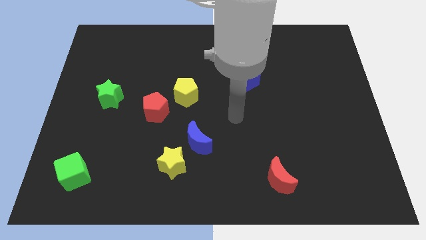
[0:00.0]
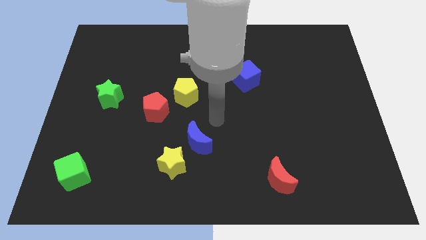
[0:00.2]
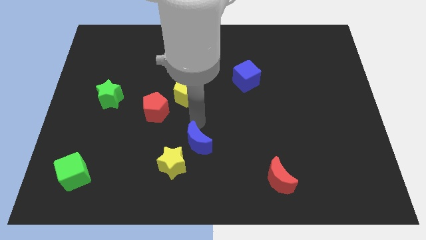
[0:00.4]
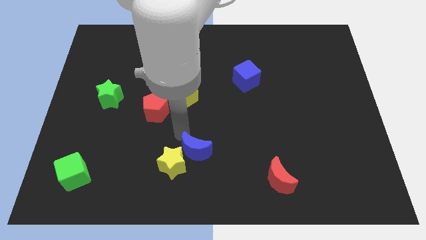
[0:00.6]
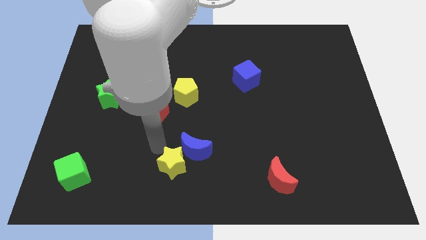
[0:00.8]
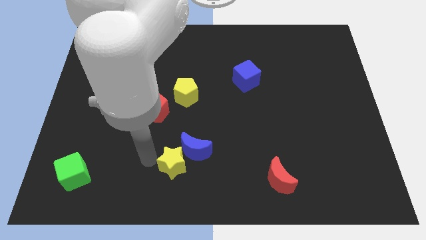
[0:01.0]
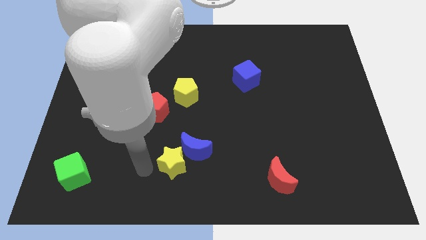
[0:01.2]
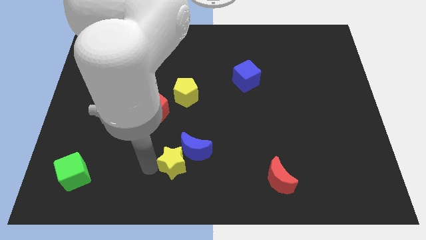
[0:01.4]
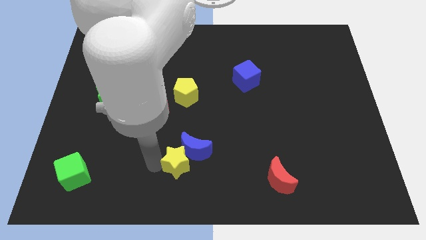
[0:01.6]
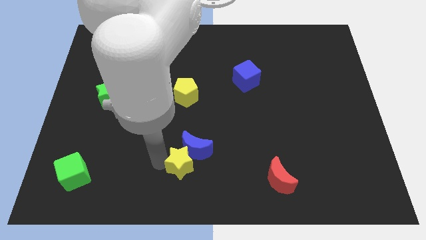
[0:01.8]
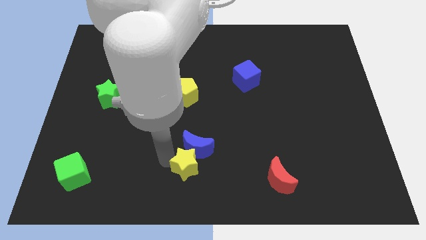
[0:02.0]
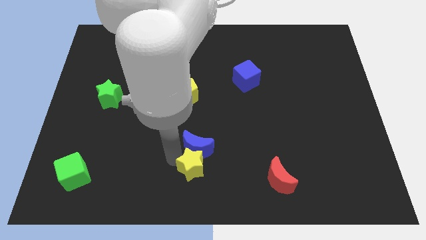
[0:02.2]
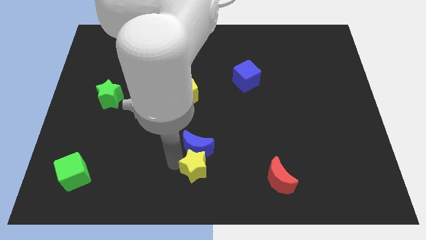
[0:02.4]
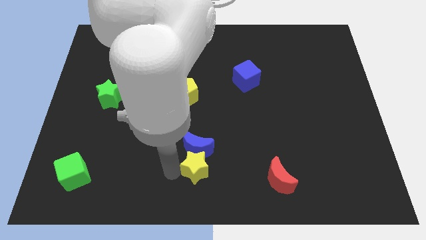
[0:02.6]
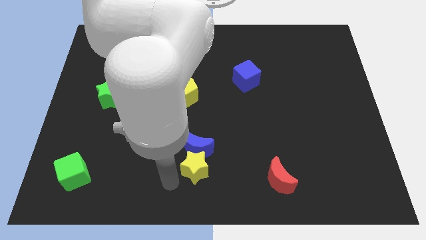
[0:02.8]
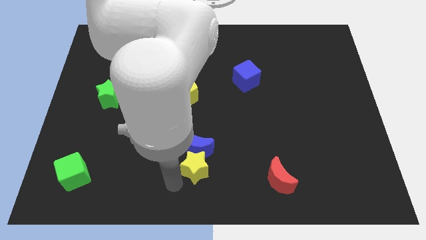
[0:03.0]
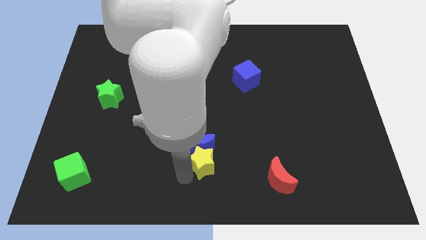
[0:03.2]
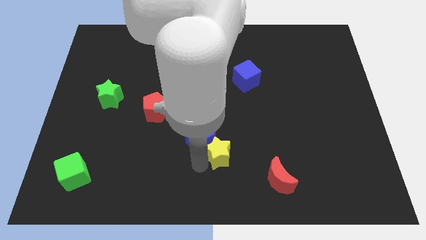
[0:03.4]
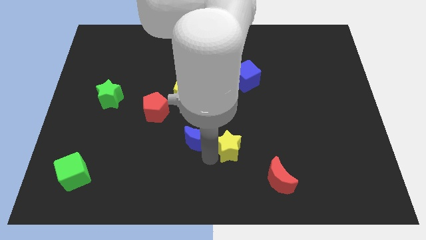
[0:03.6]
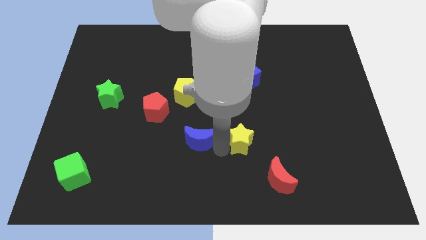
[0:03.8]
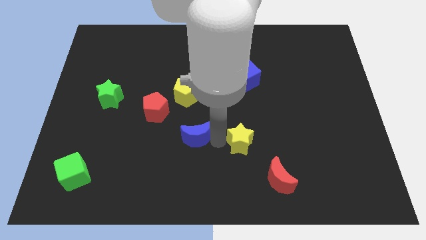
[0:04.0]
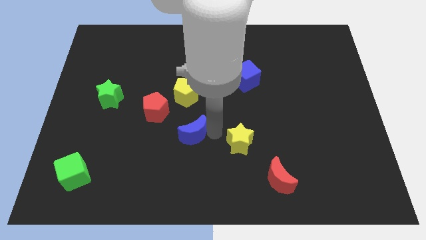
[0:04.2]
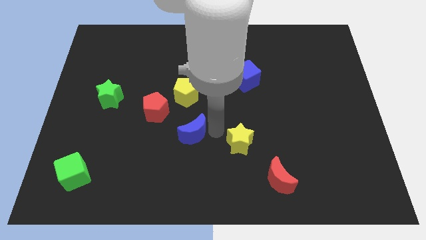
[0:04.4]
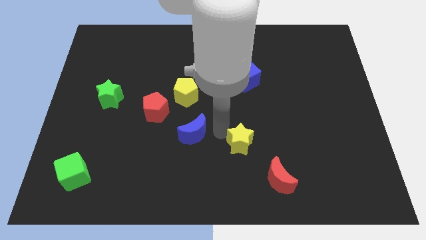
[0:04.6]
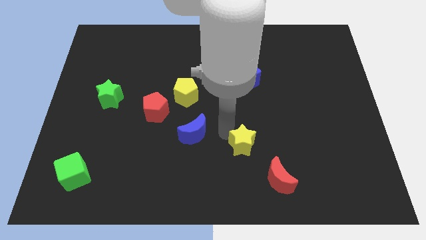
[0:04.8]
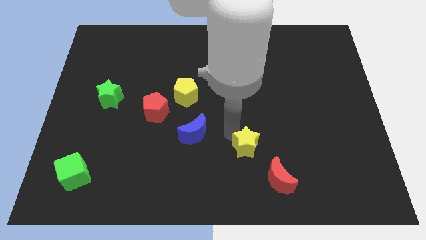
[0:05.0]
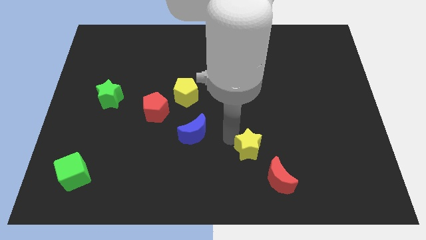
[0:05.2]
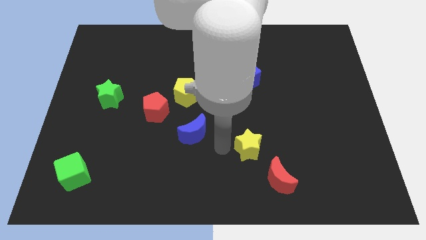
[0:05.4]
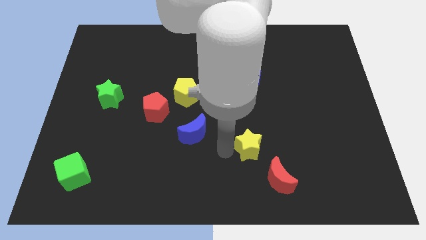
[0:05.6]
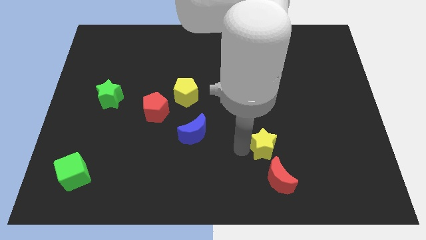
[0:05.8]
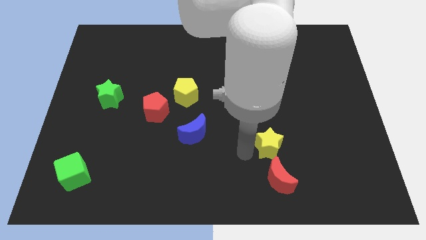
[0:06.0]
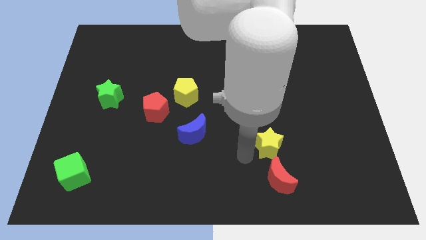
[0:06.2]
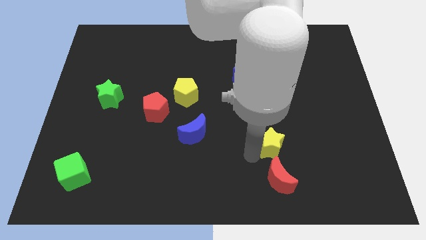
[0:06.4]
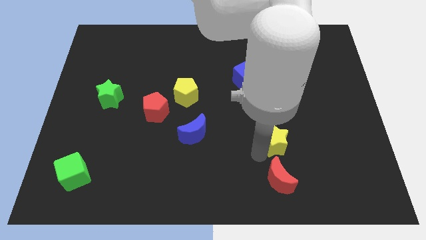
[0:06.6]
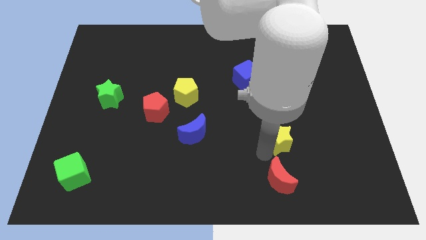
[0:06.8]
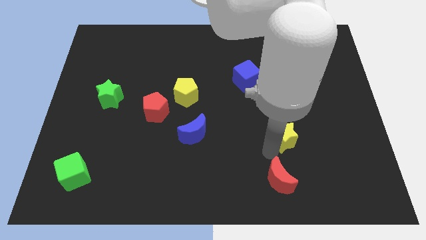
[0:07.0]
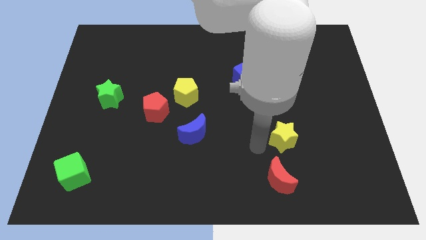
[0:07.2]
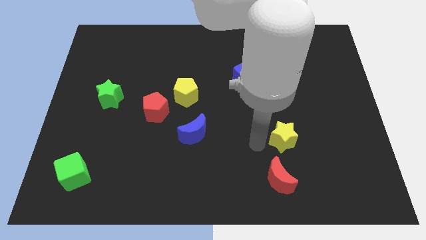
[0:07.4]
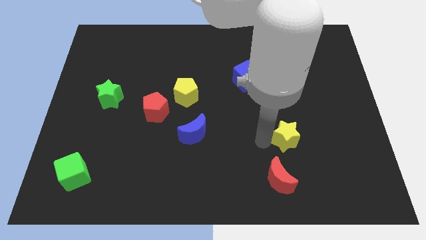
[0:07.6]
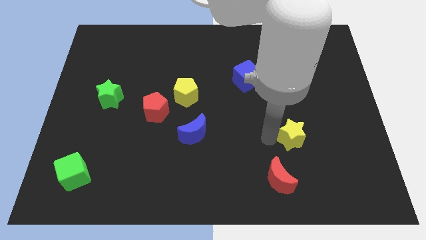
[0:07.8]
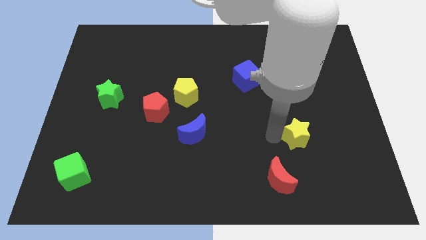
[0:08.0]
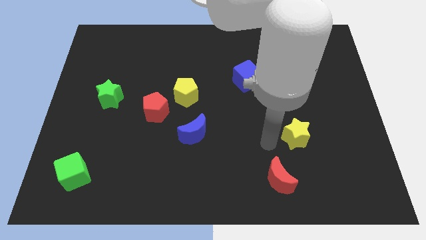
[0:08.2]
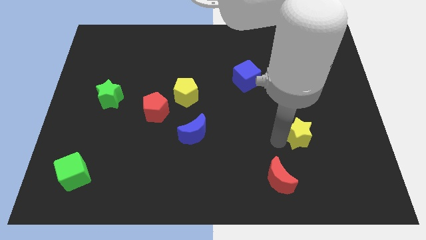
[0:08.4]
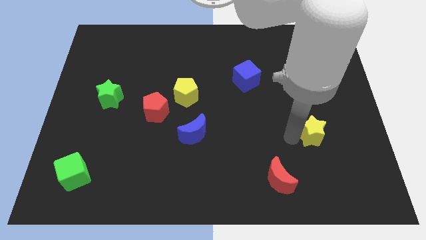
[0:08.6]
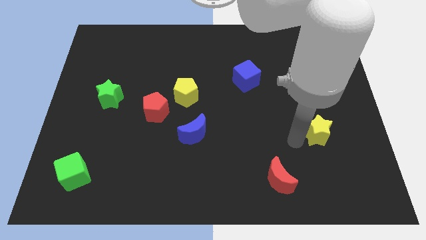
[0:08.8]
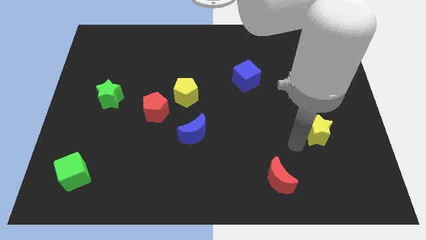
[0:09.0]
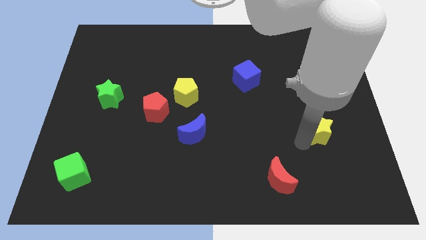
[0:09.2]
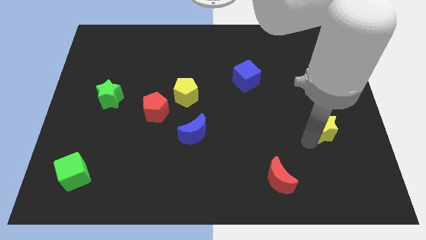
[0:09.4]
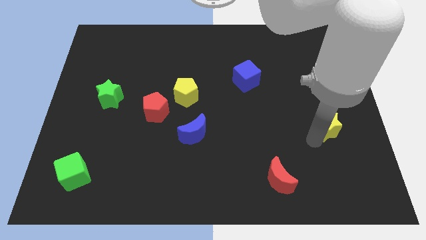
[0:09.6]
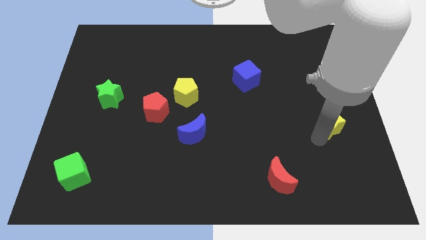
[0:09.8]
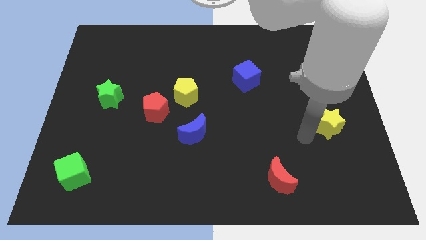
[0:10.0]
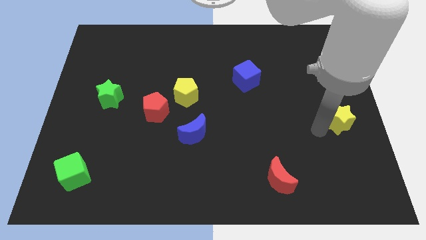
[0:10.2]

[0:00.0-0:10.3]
put the yellow star to the right side of the board

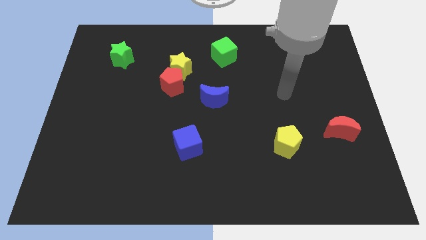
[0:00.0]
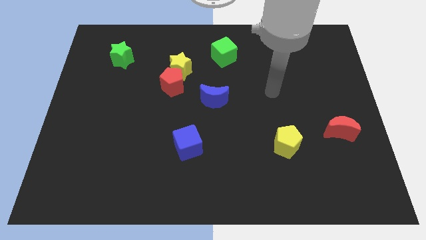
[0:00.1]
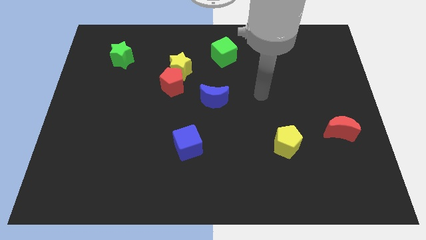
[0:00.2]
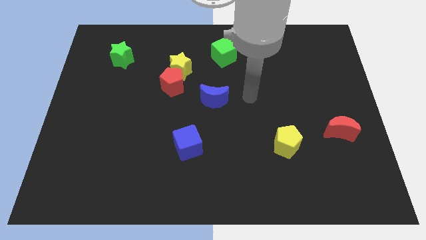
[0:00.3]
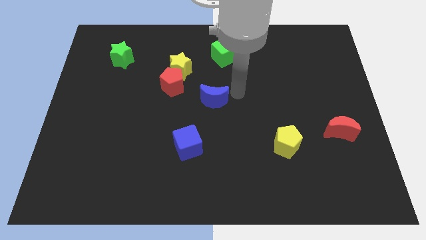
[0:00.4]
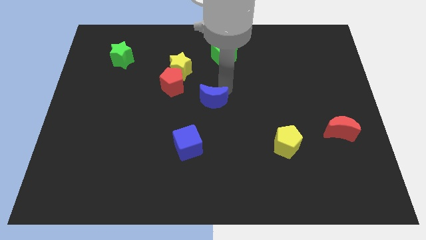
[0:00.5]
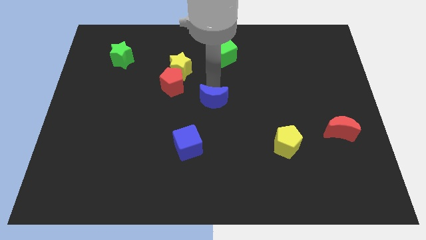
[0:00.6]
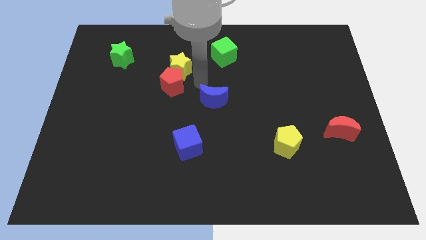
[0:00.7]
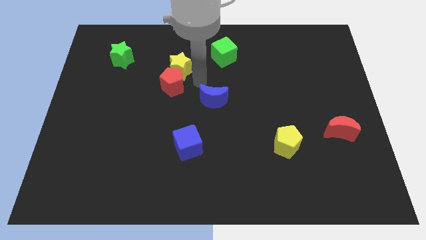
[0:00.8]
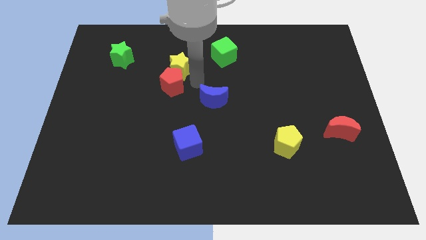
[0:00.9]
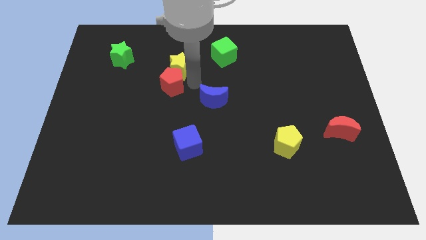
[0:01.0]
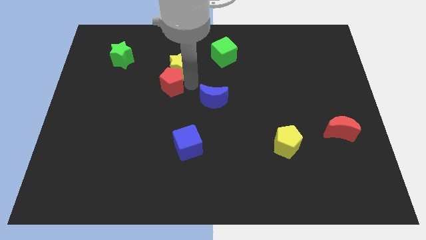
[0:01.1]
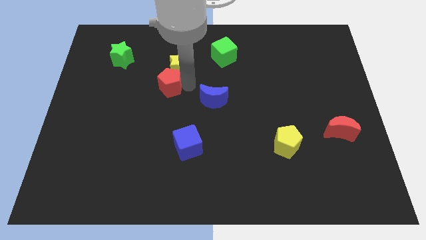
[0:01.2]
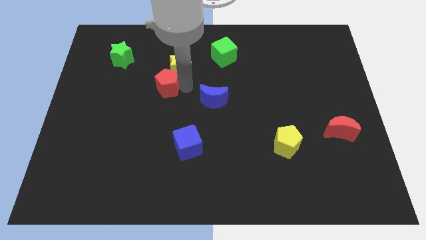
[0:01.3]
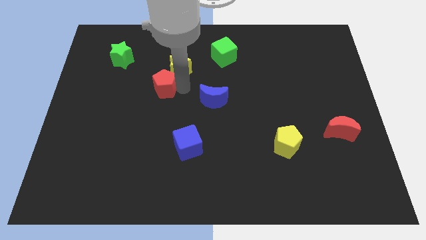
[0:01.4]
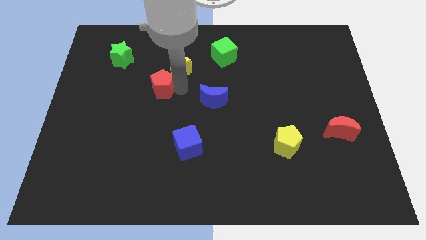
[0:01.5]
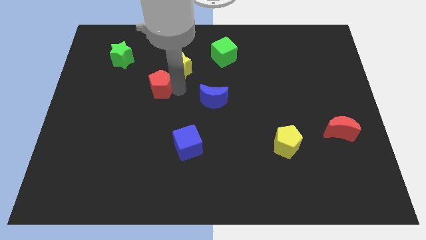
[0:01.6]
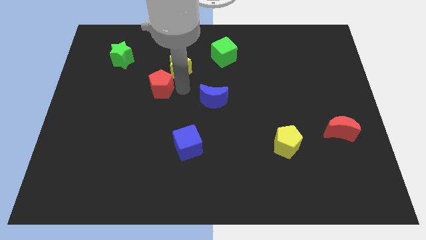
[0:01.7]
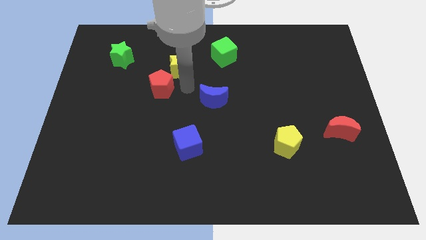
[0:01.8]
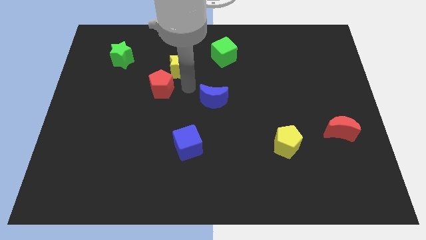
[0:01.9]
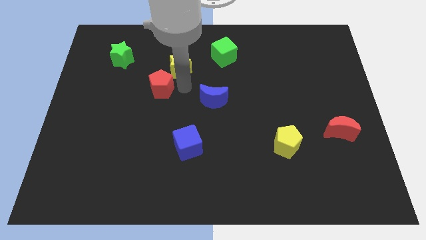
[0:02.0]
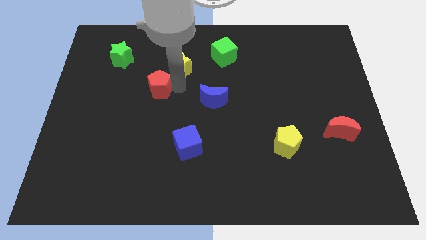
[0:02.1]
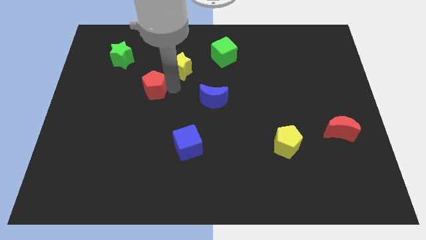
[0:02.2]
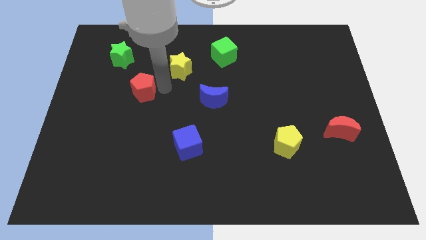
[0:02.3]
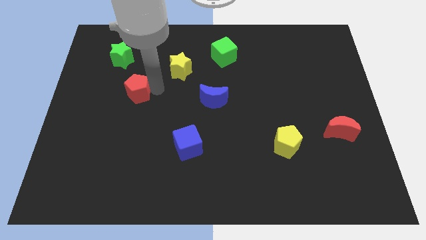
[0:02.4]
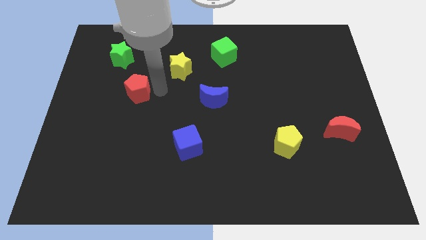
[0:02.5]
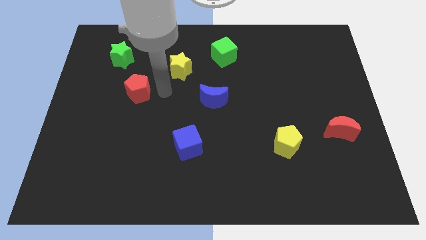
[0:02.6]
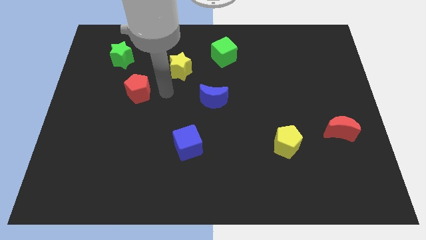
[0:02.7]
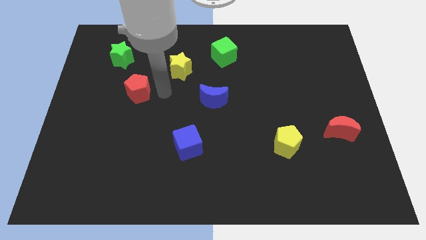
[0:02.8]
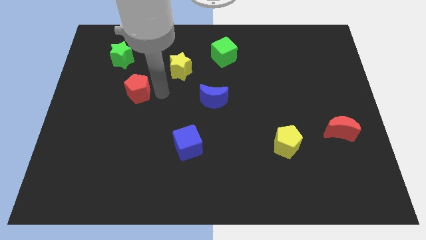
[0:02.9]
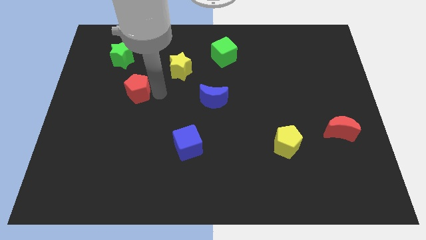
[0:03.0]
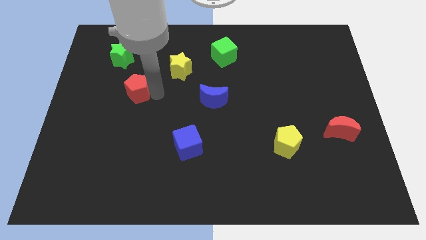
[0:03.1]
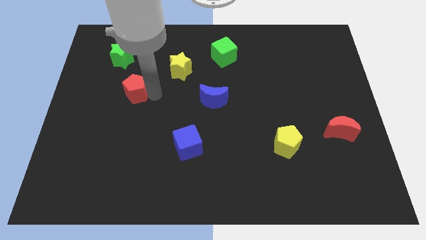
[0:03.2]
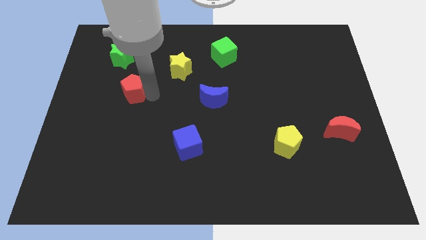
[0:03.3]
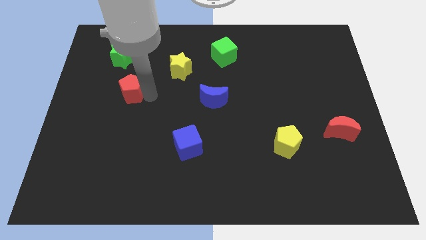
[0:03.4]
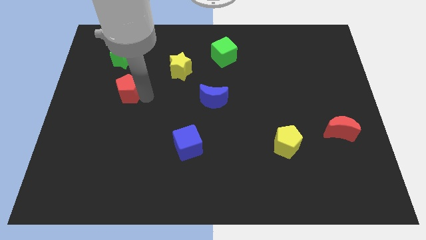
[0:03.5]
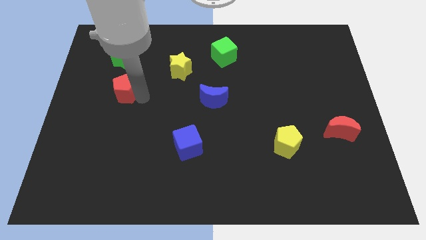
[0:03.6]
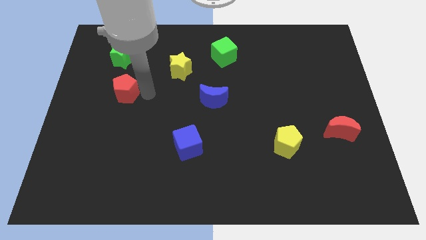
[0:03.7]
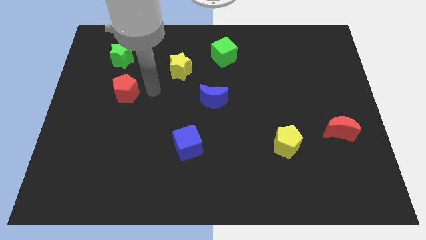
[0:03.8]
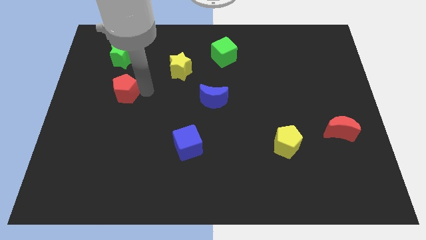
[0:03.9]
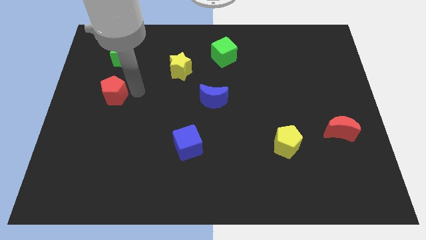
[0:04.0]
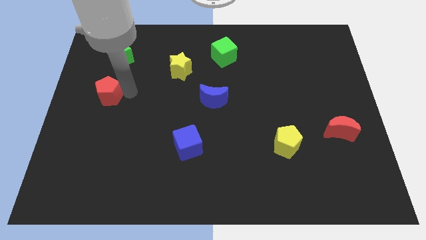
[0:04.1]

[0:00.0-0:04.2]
slide the red pentagon to the center left
